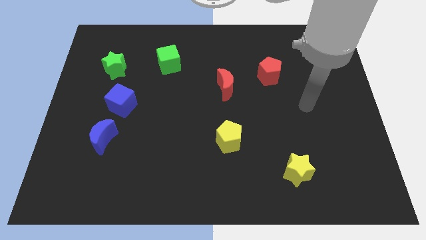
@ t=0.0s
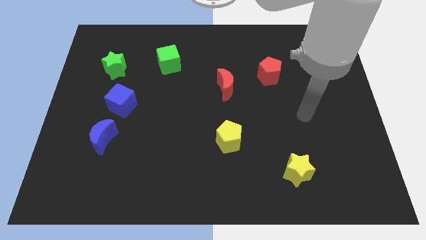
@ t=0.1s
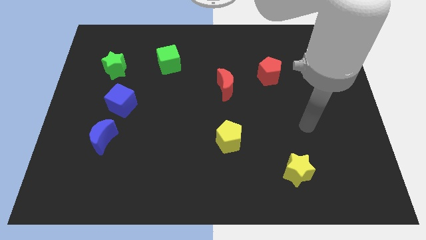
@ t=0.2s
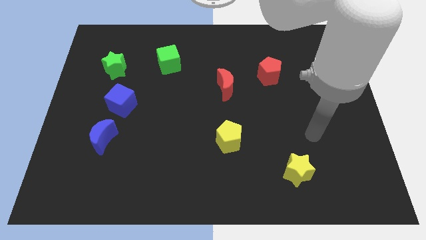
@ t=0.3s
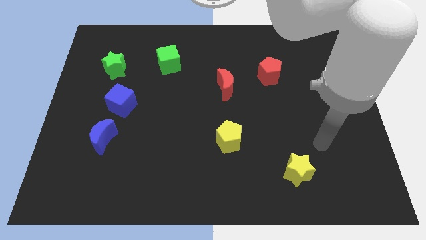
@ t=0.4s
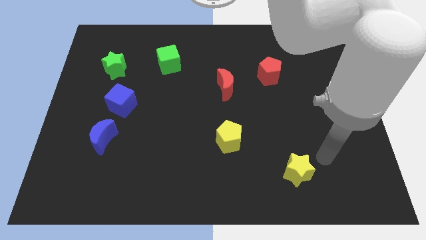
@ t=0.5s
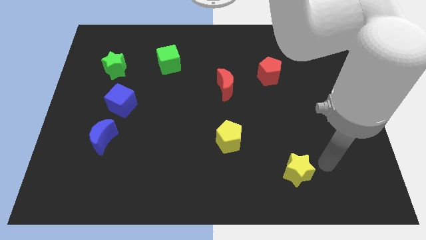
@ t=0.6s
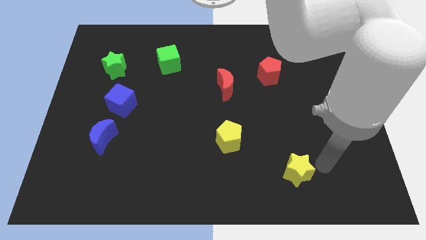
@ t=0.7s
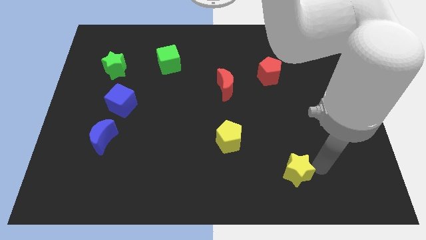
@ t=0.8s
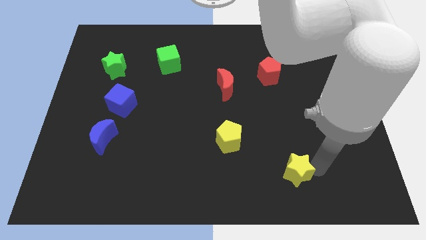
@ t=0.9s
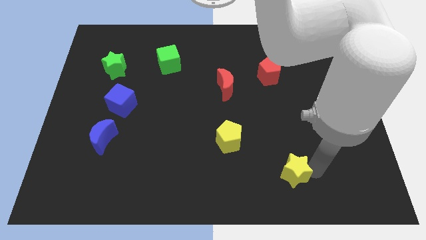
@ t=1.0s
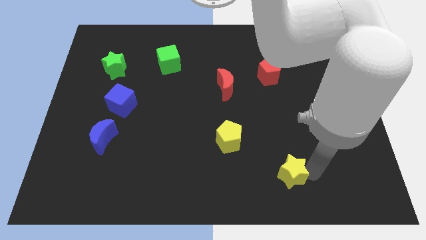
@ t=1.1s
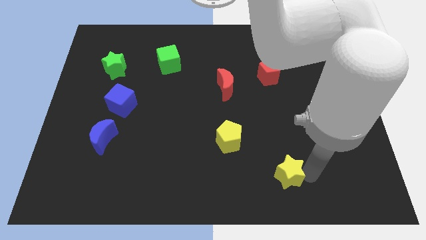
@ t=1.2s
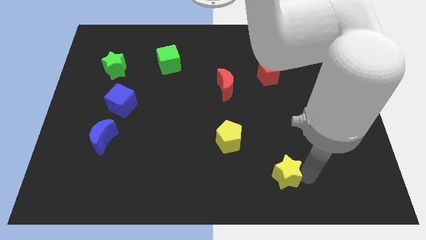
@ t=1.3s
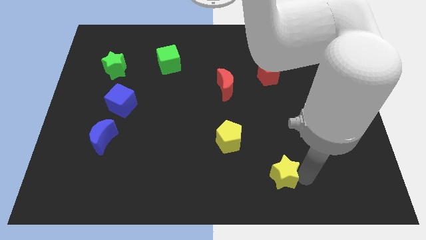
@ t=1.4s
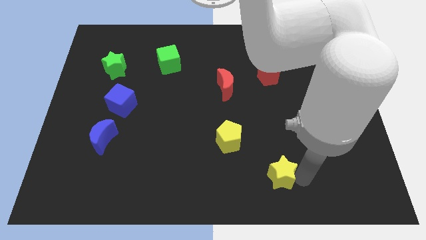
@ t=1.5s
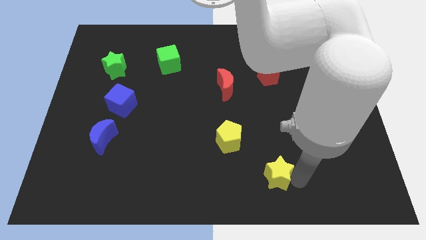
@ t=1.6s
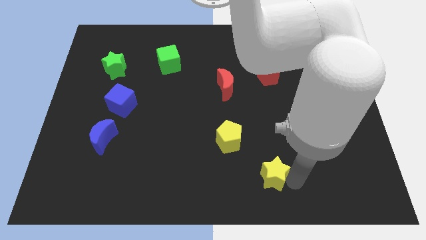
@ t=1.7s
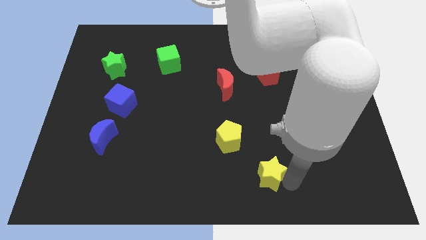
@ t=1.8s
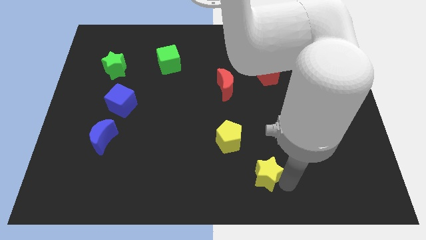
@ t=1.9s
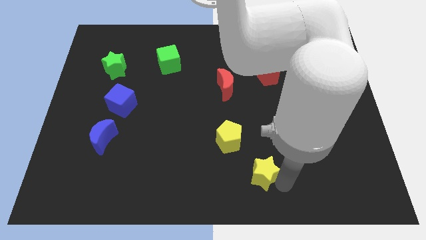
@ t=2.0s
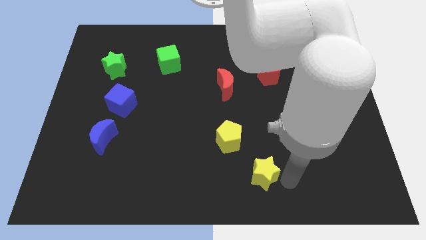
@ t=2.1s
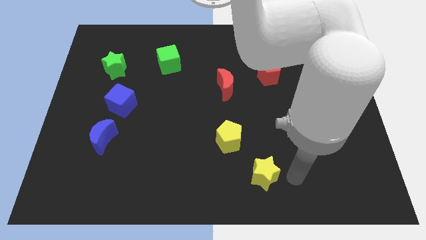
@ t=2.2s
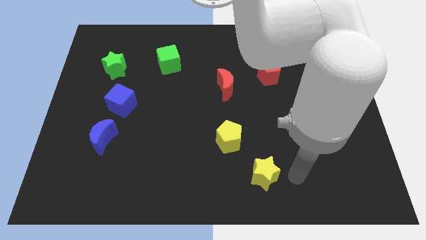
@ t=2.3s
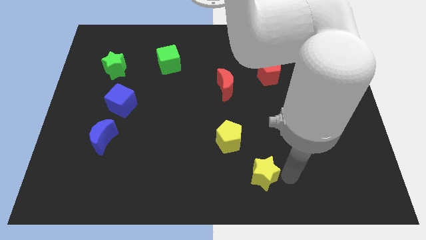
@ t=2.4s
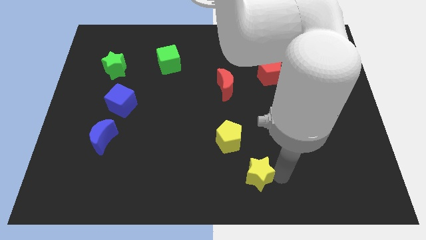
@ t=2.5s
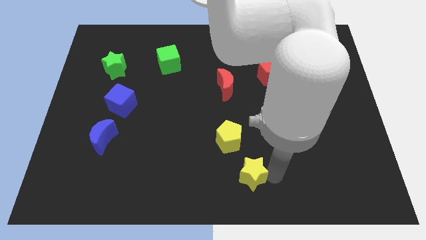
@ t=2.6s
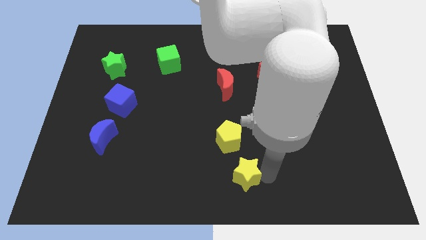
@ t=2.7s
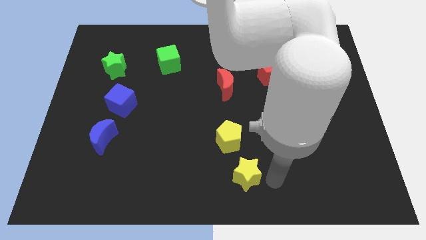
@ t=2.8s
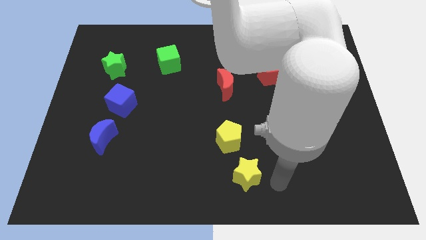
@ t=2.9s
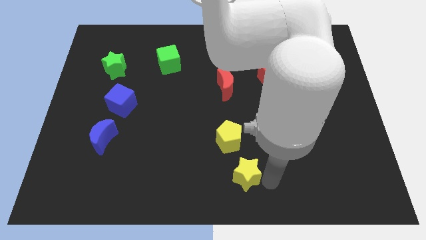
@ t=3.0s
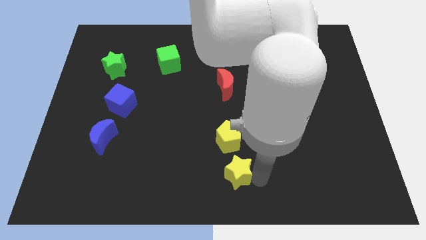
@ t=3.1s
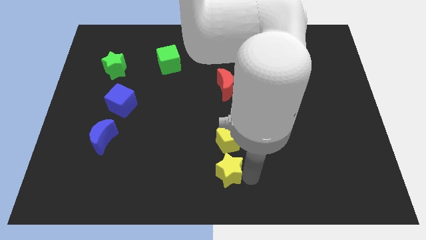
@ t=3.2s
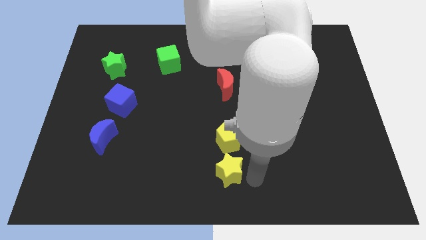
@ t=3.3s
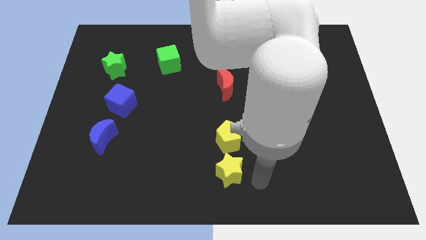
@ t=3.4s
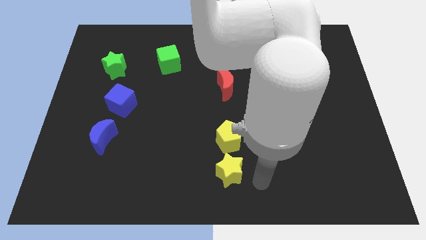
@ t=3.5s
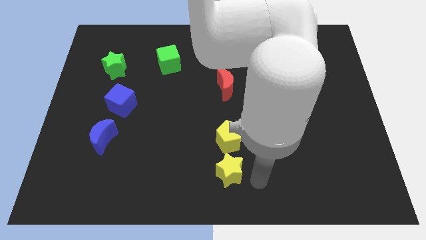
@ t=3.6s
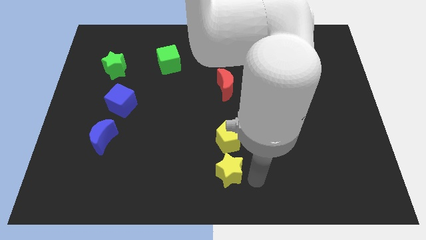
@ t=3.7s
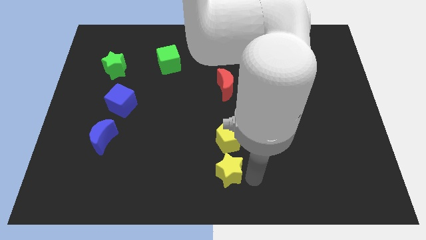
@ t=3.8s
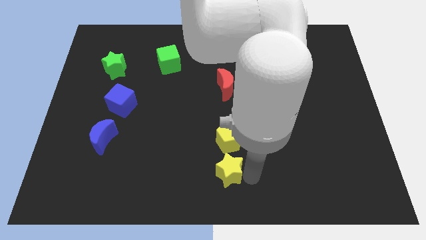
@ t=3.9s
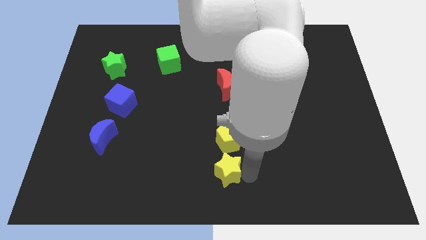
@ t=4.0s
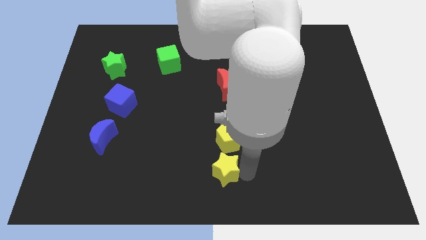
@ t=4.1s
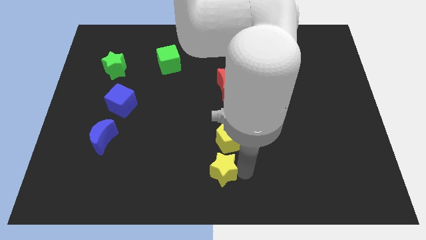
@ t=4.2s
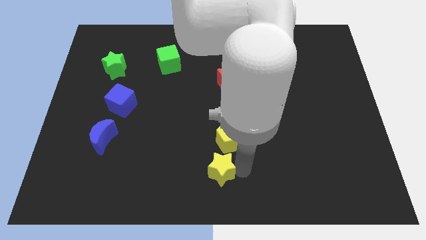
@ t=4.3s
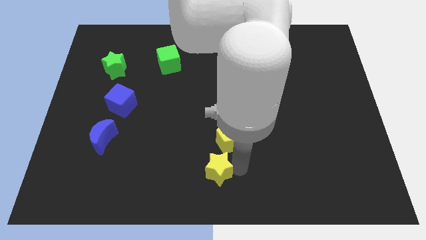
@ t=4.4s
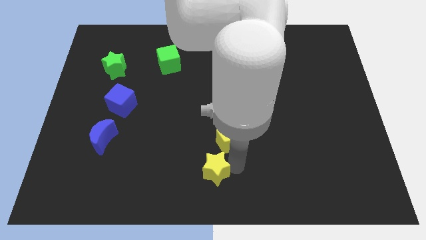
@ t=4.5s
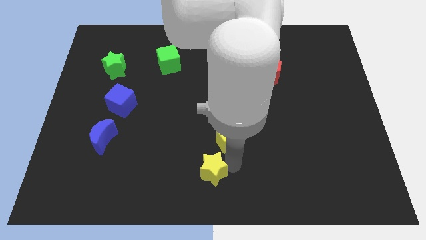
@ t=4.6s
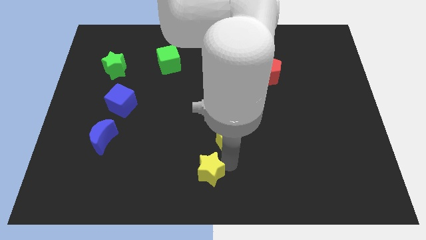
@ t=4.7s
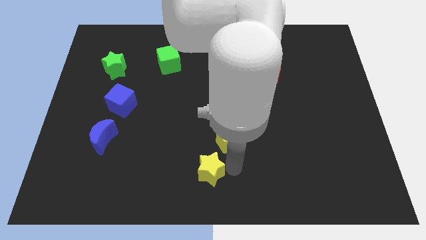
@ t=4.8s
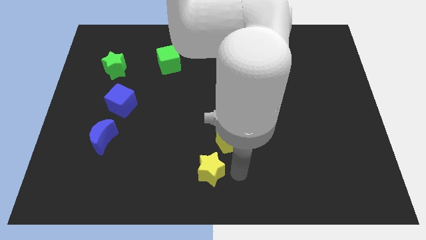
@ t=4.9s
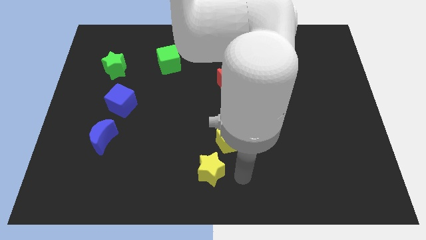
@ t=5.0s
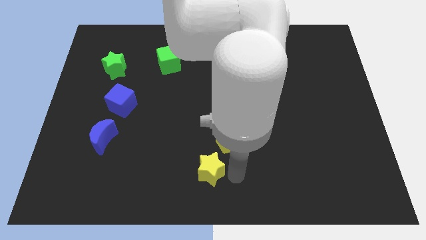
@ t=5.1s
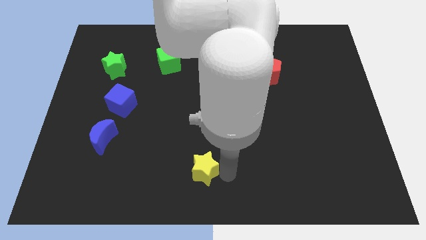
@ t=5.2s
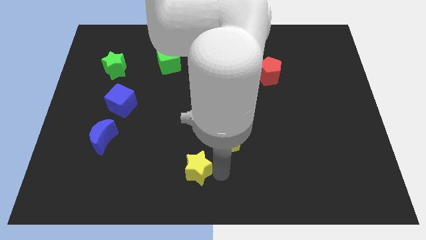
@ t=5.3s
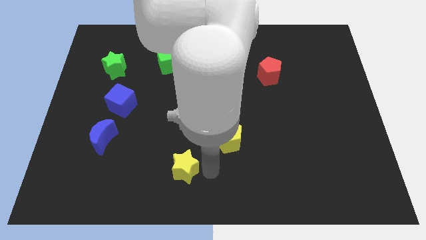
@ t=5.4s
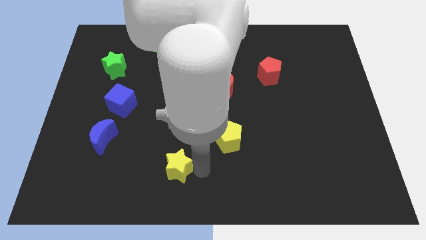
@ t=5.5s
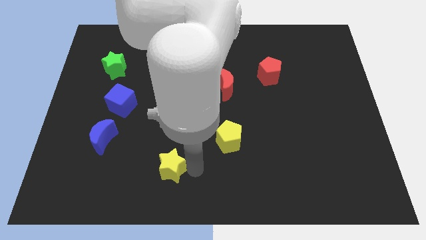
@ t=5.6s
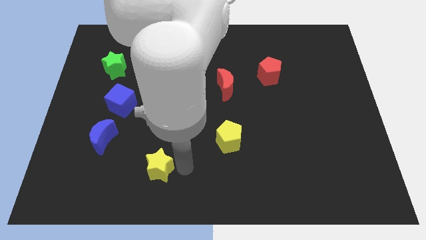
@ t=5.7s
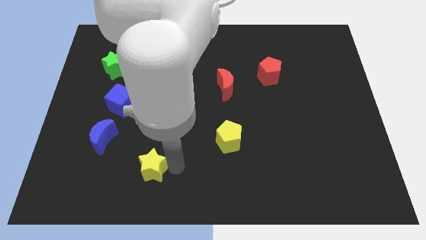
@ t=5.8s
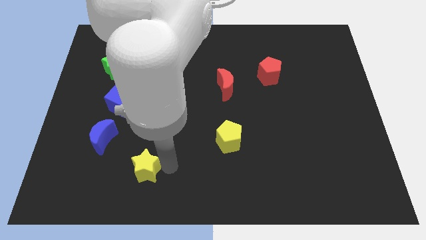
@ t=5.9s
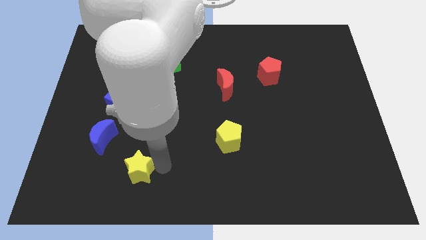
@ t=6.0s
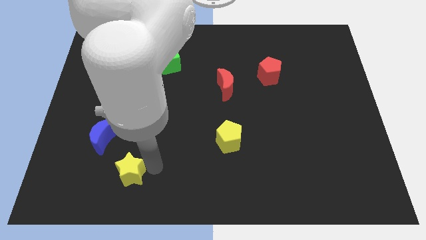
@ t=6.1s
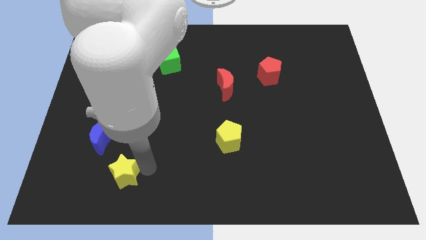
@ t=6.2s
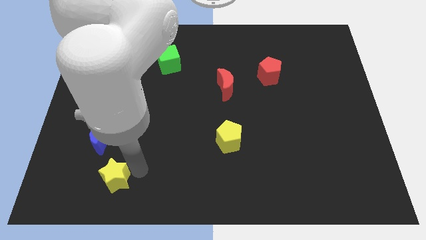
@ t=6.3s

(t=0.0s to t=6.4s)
slide the yellow star below the blue moon

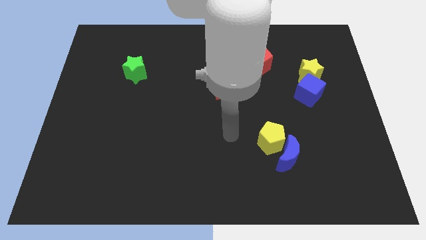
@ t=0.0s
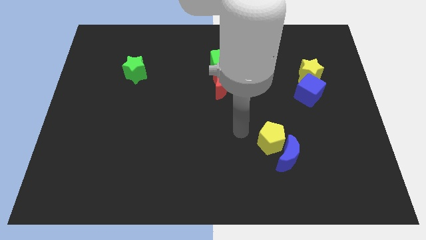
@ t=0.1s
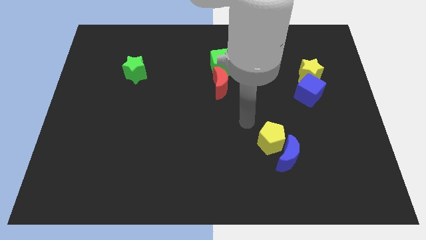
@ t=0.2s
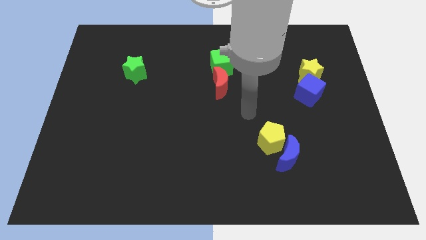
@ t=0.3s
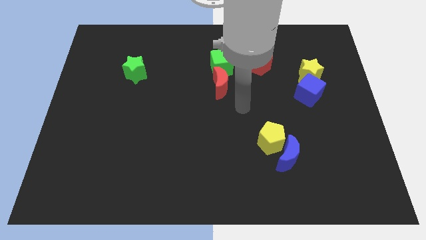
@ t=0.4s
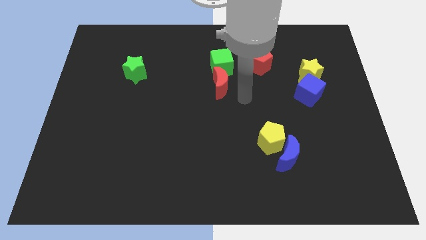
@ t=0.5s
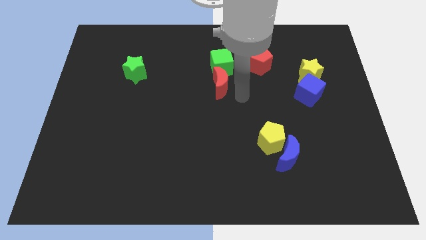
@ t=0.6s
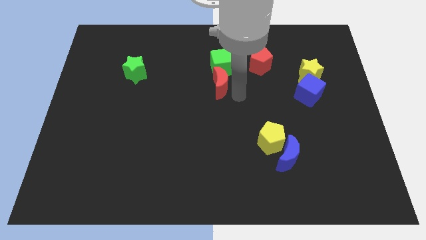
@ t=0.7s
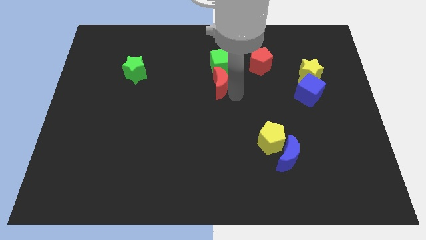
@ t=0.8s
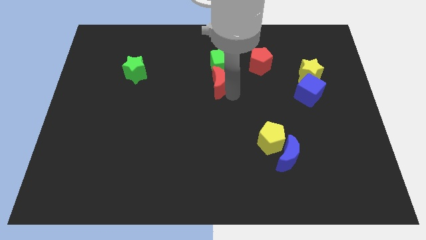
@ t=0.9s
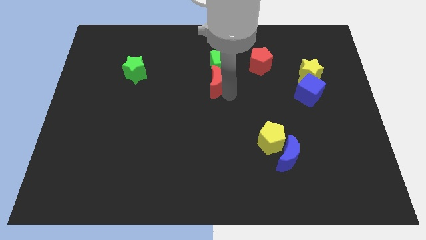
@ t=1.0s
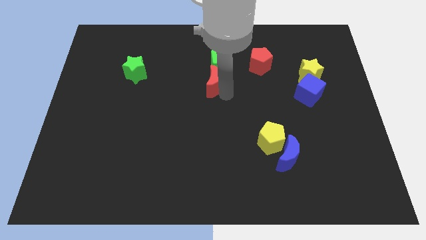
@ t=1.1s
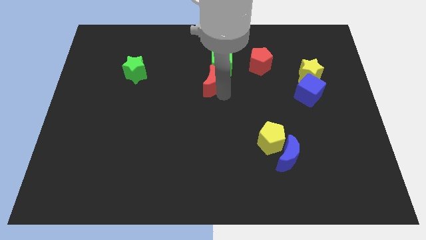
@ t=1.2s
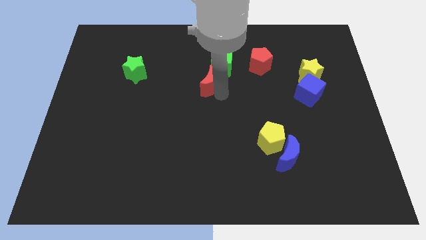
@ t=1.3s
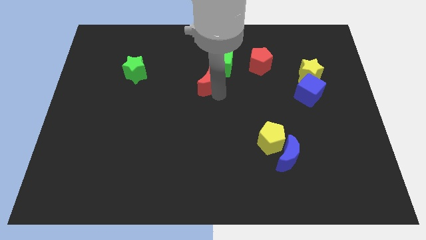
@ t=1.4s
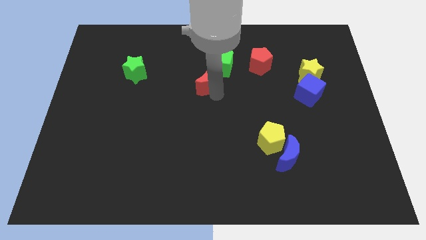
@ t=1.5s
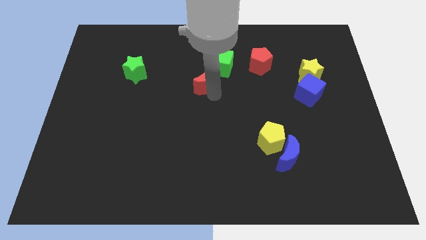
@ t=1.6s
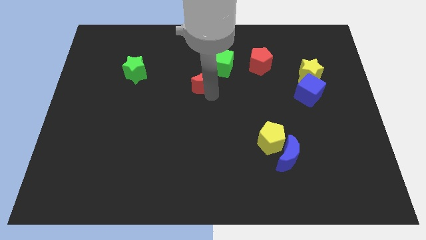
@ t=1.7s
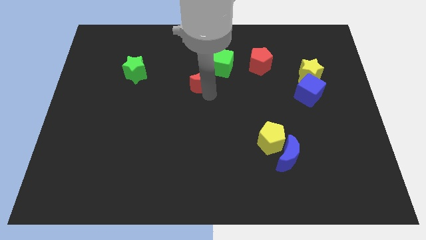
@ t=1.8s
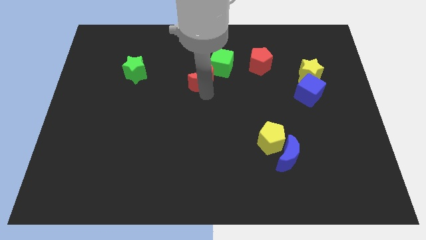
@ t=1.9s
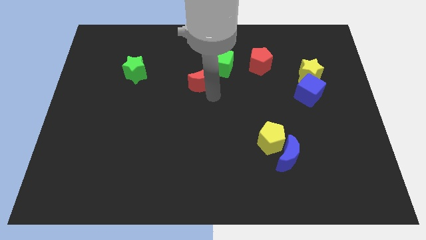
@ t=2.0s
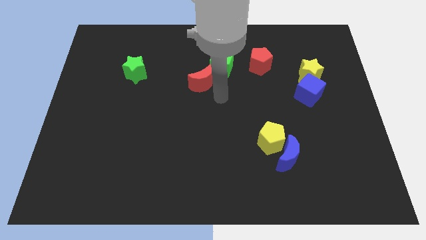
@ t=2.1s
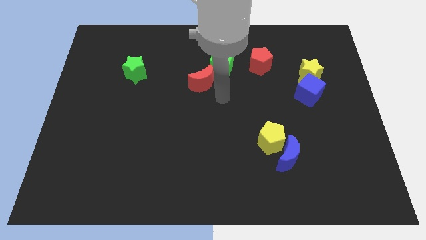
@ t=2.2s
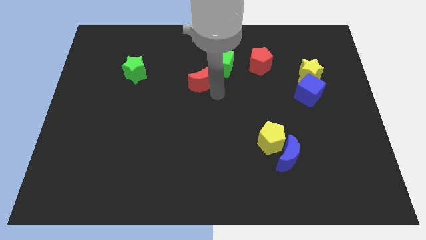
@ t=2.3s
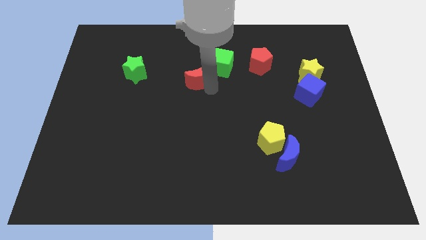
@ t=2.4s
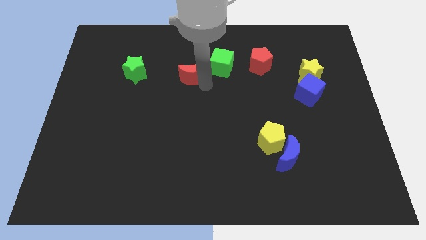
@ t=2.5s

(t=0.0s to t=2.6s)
move the red moon left of the green cube
